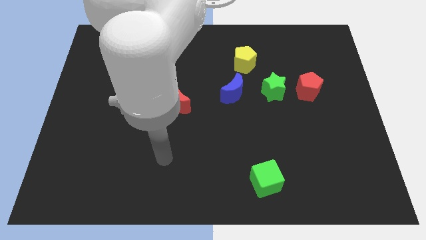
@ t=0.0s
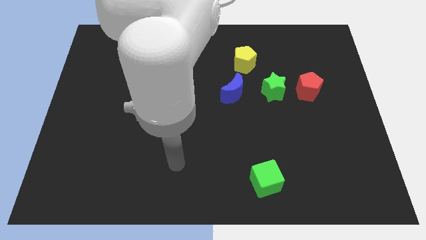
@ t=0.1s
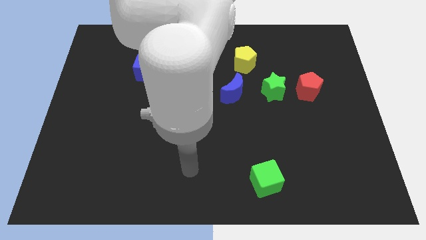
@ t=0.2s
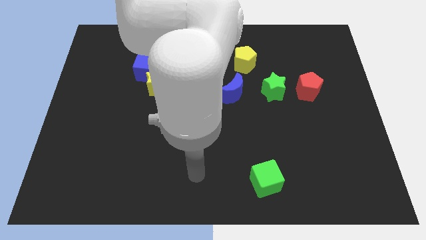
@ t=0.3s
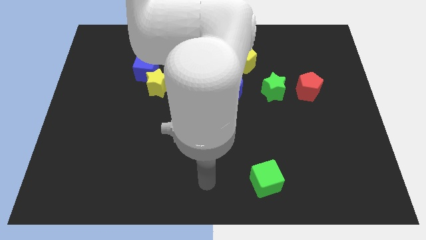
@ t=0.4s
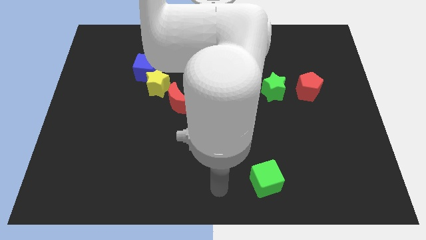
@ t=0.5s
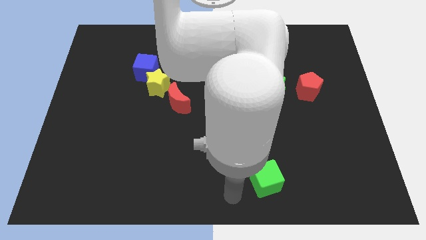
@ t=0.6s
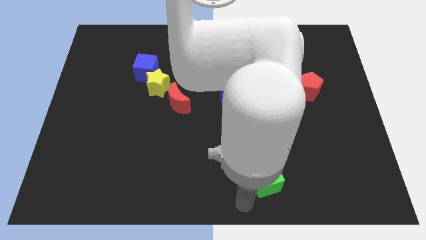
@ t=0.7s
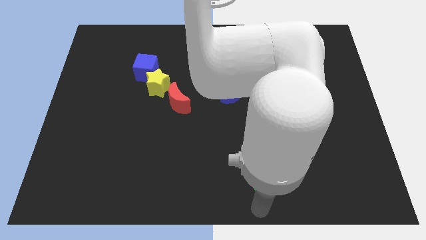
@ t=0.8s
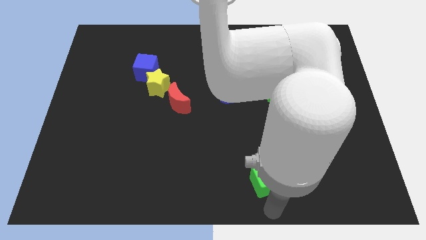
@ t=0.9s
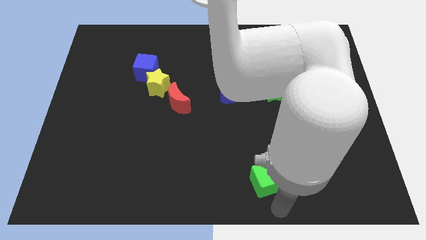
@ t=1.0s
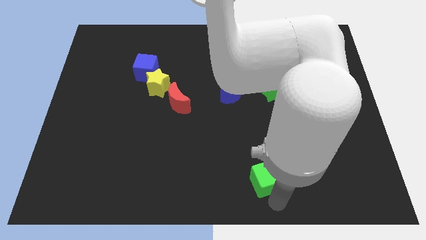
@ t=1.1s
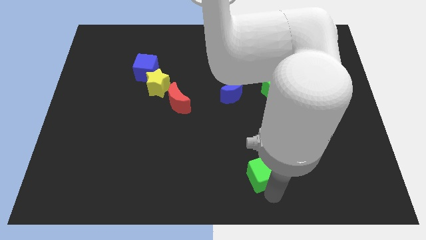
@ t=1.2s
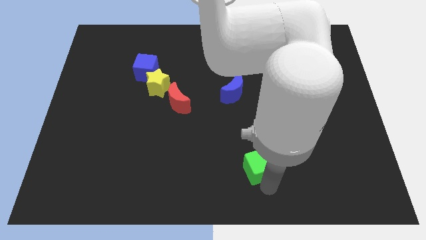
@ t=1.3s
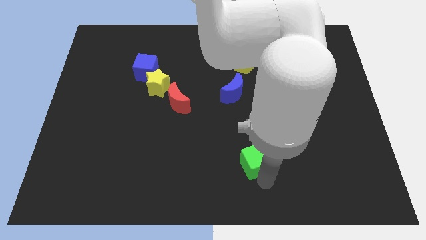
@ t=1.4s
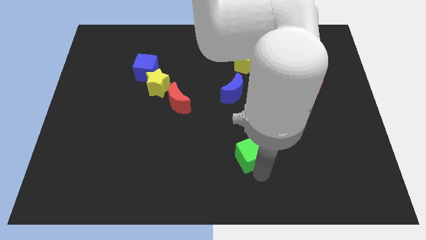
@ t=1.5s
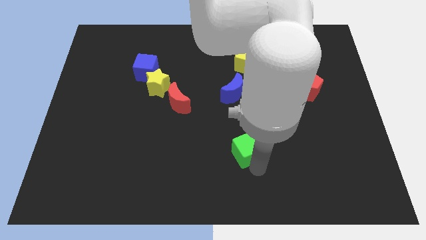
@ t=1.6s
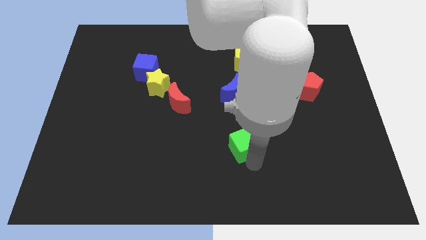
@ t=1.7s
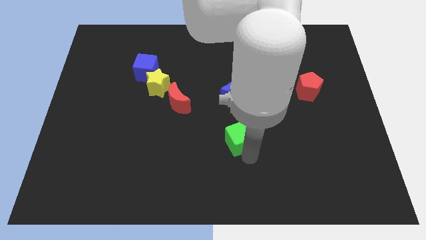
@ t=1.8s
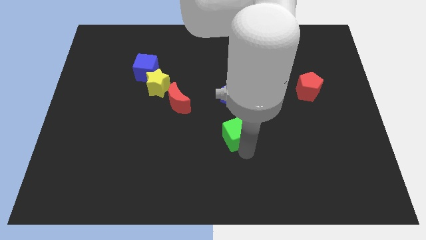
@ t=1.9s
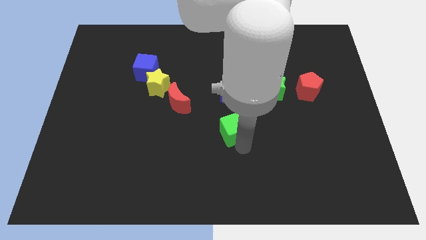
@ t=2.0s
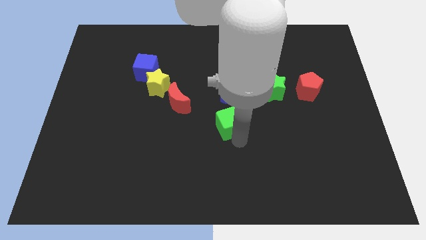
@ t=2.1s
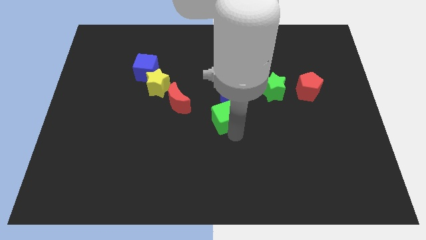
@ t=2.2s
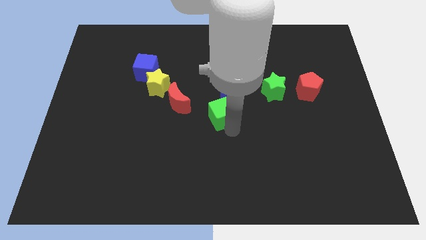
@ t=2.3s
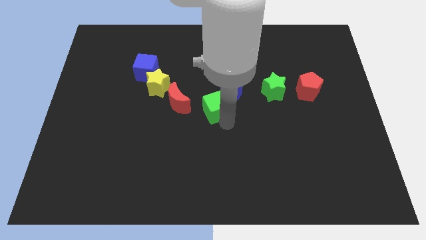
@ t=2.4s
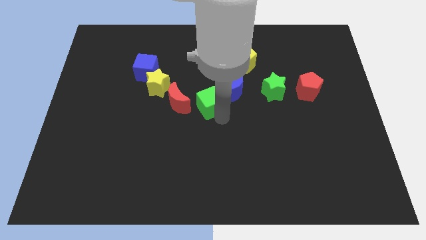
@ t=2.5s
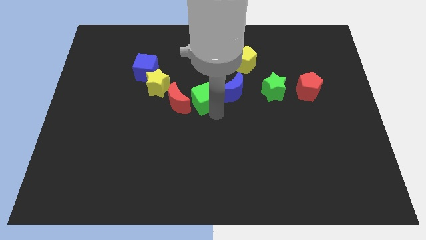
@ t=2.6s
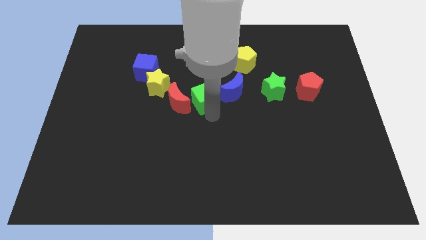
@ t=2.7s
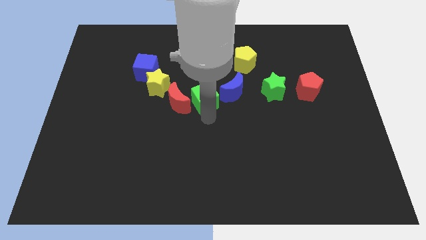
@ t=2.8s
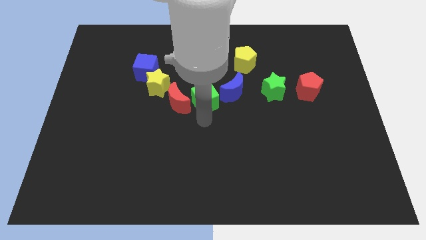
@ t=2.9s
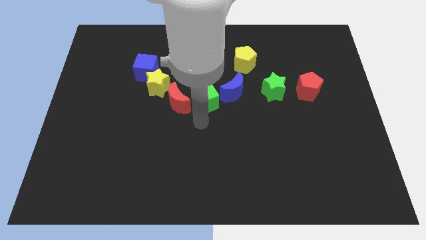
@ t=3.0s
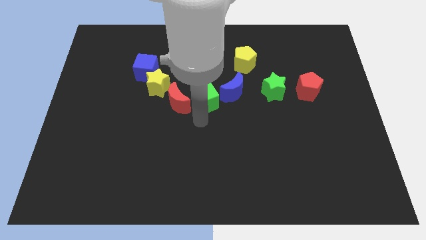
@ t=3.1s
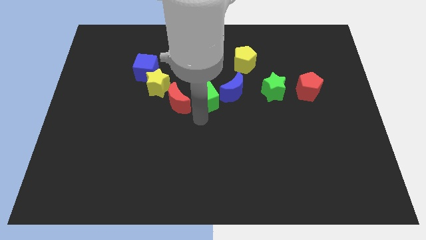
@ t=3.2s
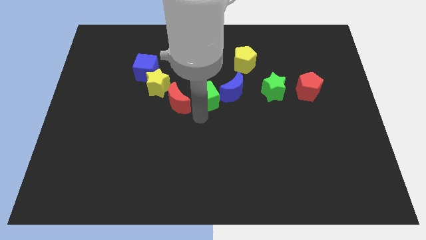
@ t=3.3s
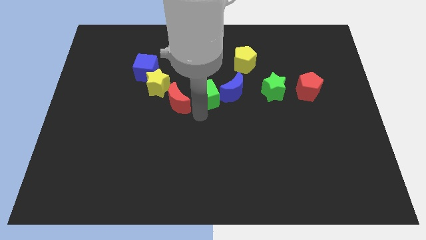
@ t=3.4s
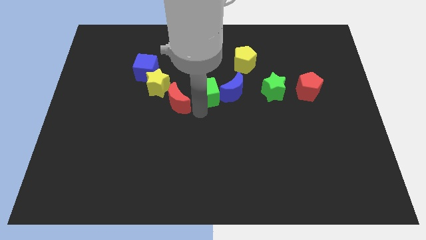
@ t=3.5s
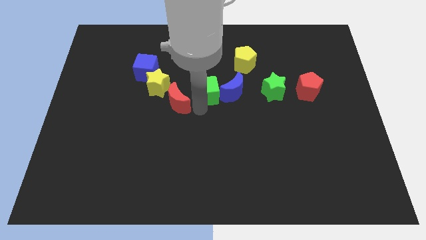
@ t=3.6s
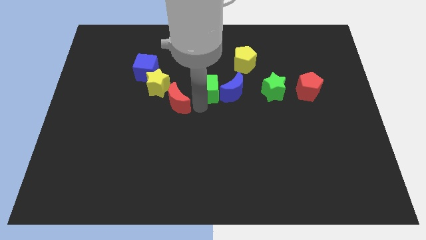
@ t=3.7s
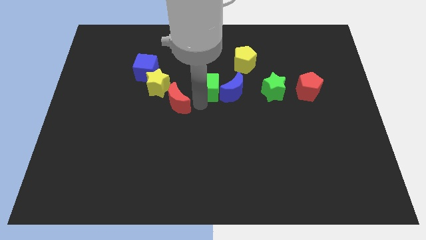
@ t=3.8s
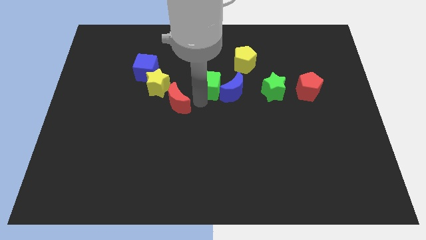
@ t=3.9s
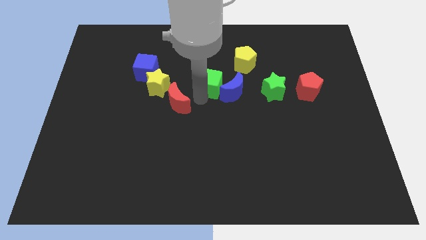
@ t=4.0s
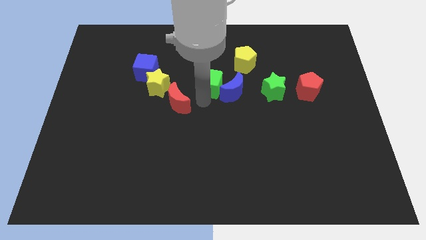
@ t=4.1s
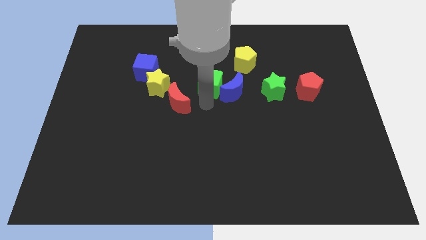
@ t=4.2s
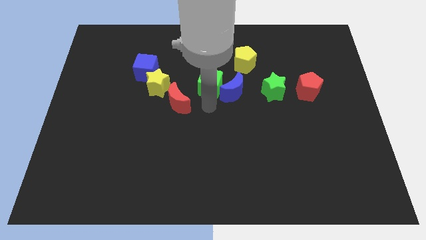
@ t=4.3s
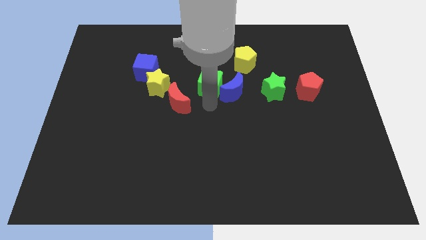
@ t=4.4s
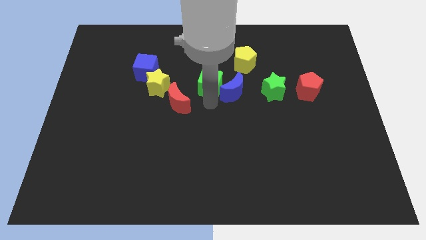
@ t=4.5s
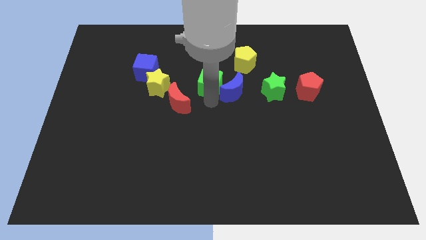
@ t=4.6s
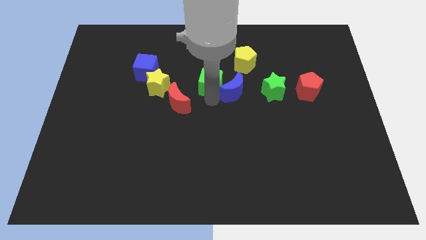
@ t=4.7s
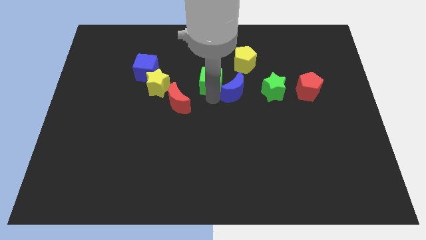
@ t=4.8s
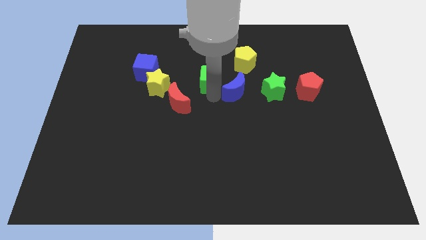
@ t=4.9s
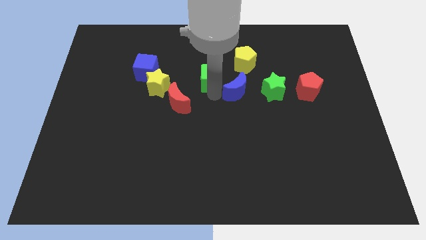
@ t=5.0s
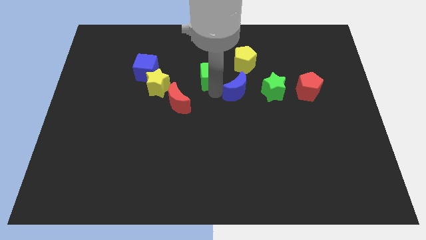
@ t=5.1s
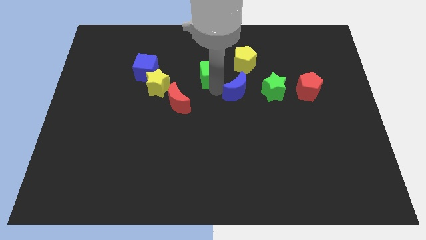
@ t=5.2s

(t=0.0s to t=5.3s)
move the green cube just left of the yellow pentagon

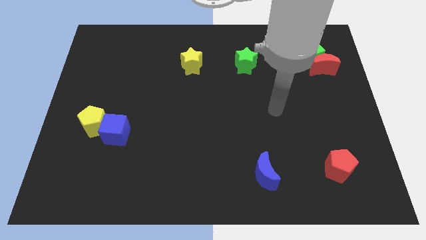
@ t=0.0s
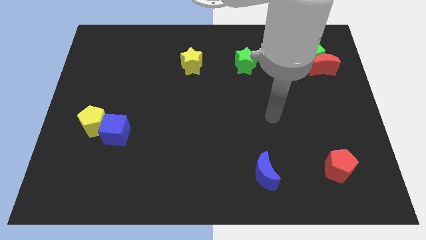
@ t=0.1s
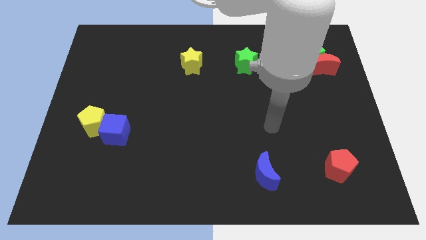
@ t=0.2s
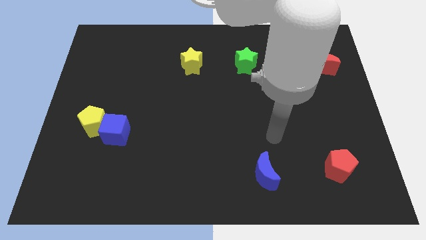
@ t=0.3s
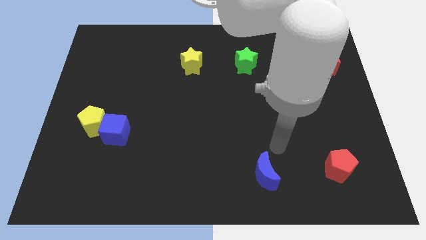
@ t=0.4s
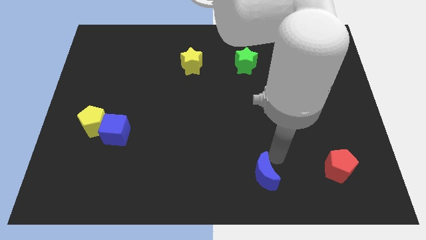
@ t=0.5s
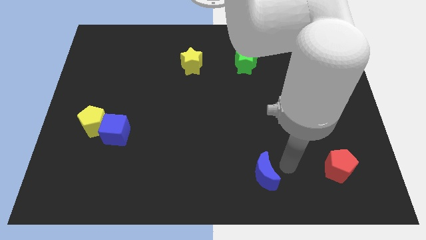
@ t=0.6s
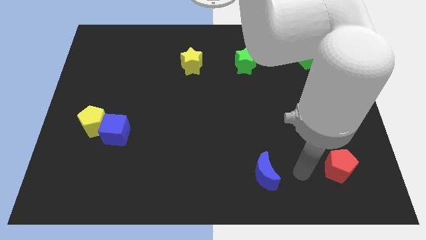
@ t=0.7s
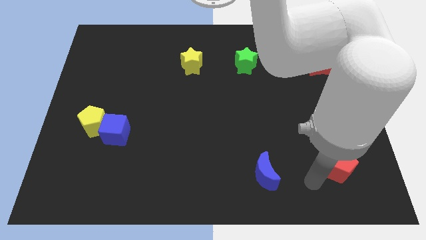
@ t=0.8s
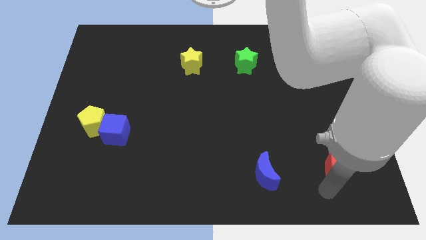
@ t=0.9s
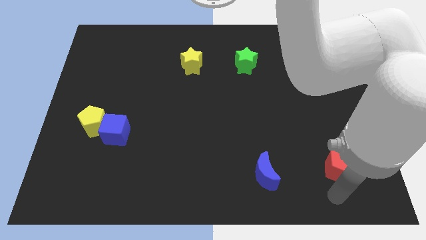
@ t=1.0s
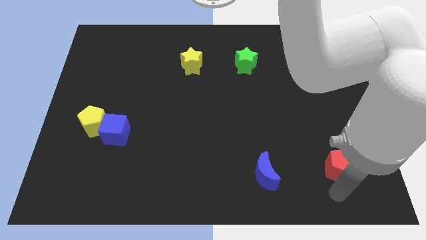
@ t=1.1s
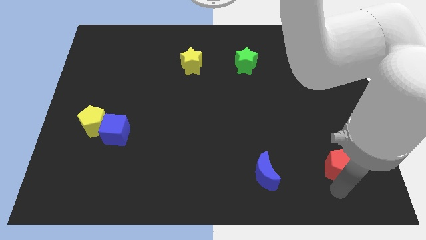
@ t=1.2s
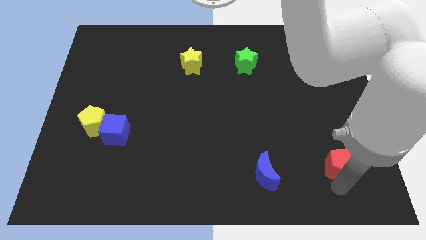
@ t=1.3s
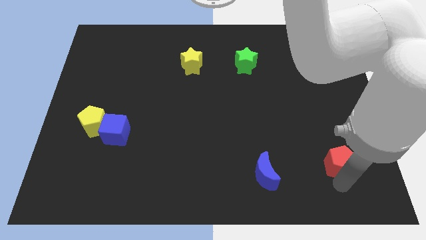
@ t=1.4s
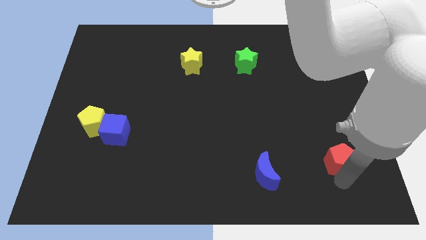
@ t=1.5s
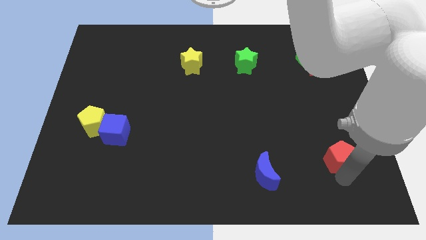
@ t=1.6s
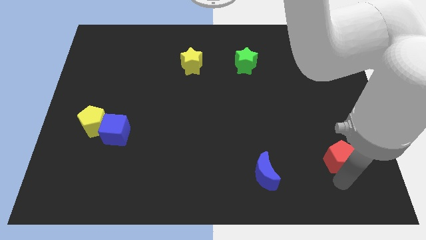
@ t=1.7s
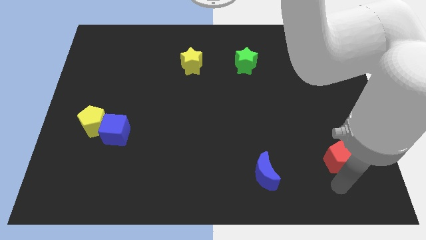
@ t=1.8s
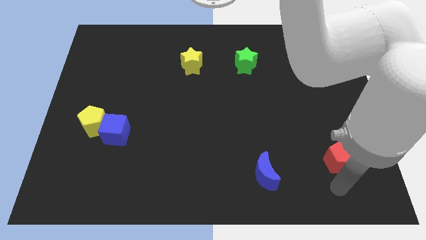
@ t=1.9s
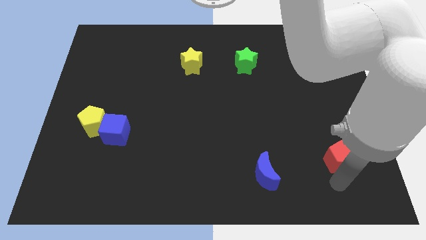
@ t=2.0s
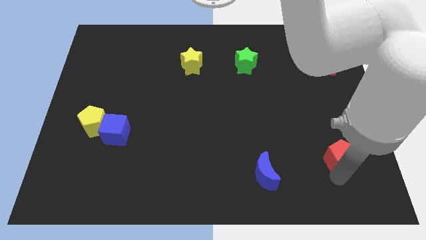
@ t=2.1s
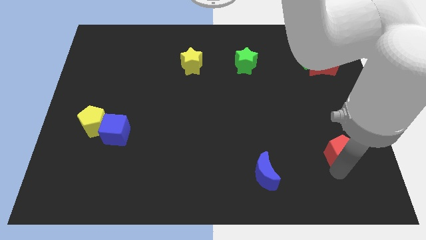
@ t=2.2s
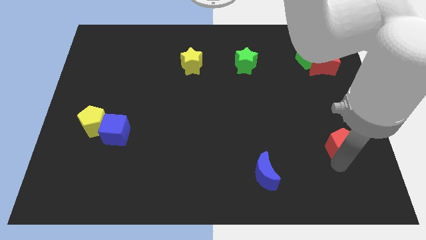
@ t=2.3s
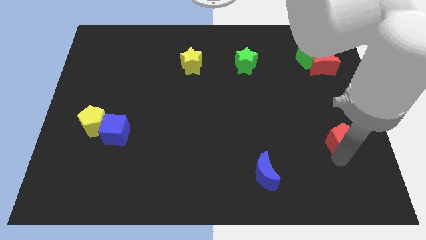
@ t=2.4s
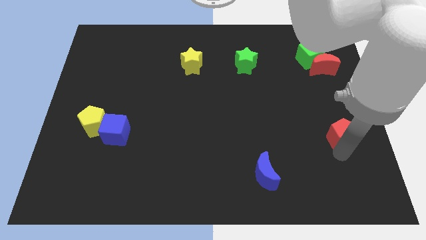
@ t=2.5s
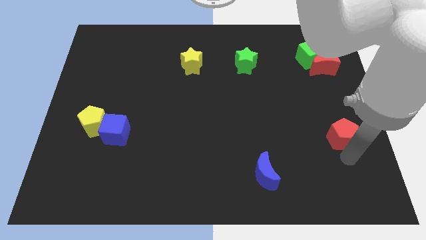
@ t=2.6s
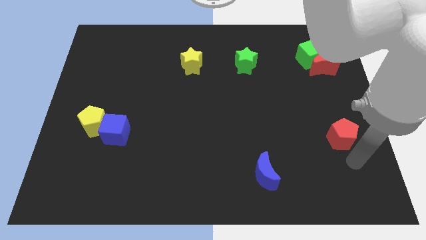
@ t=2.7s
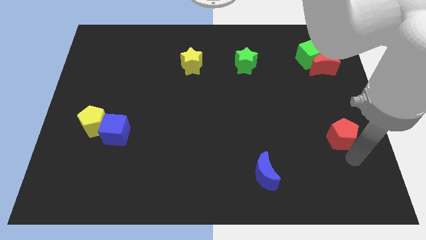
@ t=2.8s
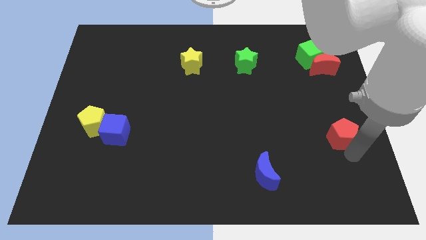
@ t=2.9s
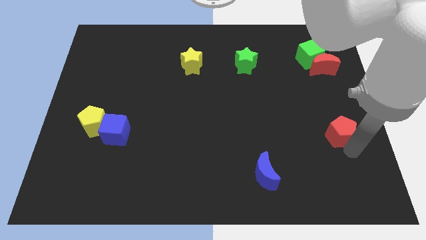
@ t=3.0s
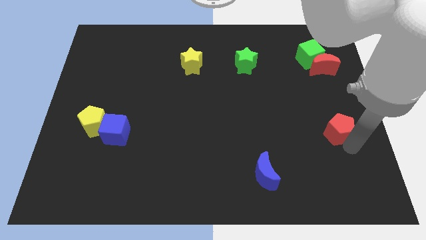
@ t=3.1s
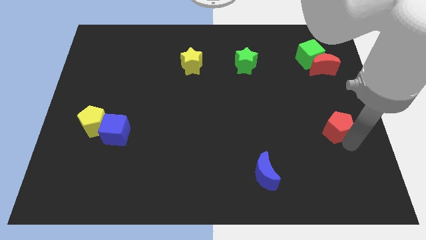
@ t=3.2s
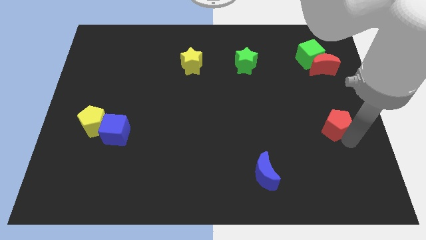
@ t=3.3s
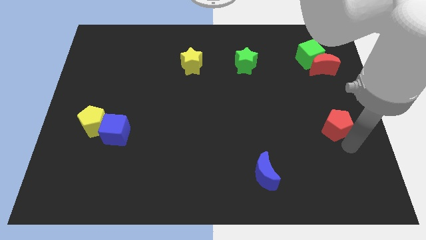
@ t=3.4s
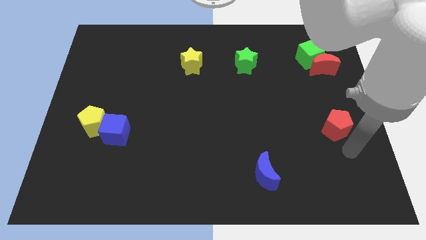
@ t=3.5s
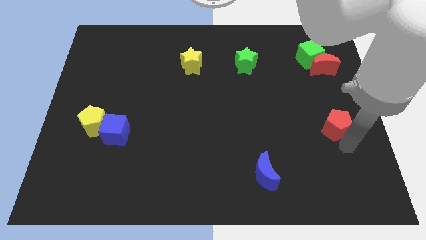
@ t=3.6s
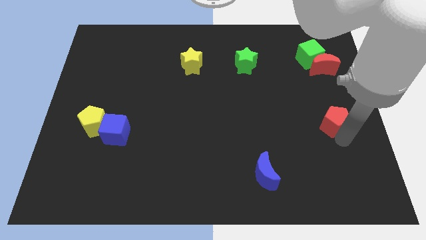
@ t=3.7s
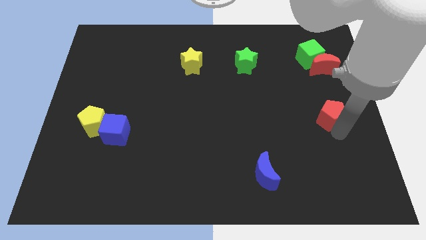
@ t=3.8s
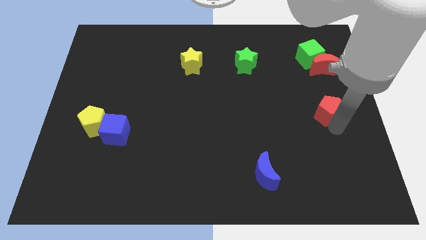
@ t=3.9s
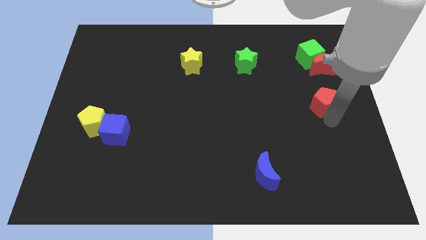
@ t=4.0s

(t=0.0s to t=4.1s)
move the red pentagon below the green cube
